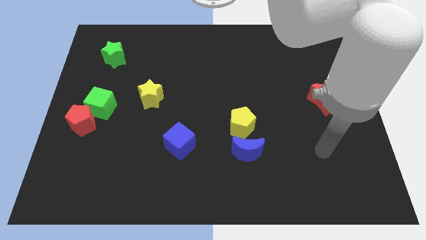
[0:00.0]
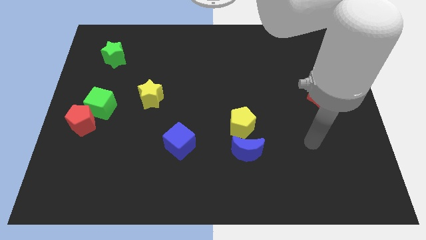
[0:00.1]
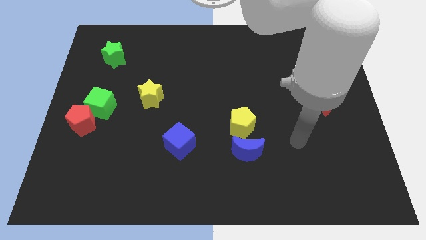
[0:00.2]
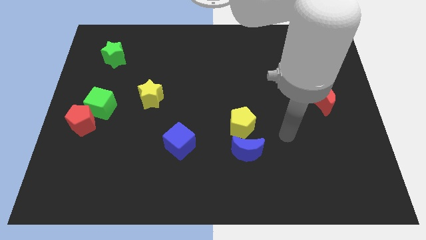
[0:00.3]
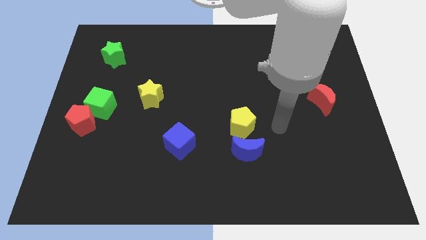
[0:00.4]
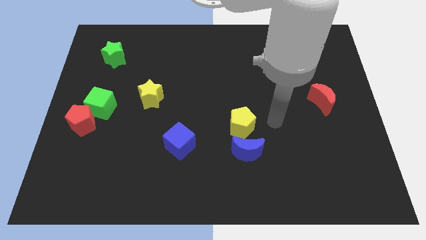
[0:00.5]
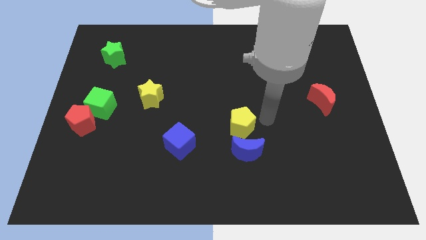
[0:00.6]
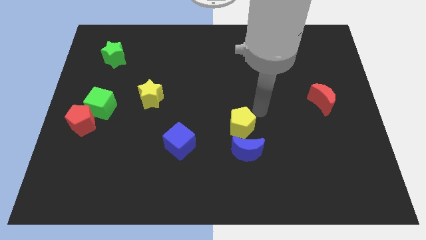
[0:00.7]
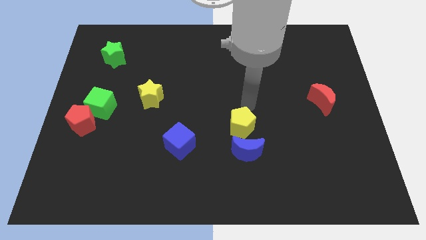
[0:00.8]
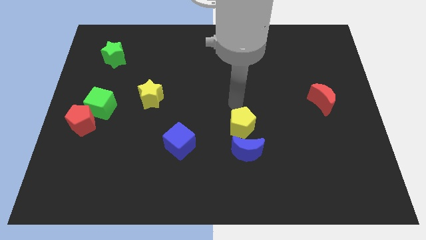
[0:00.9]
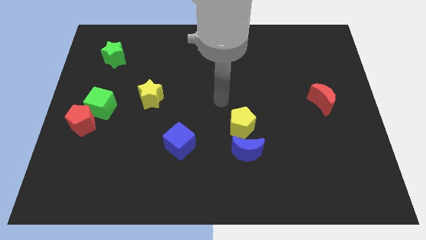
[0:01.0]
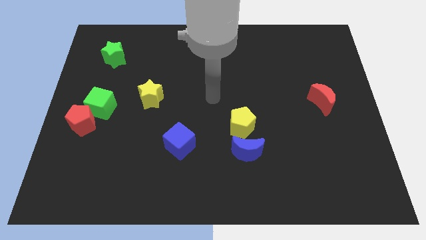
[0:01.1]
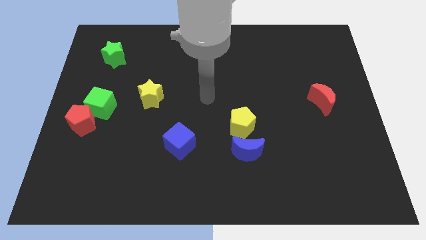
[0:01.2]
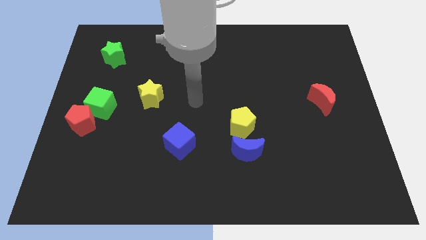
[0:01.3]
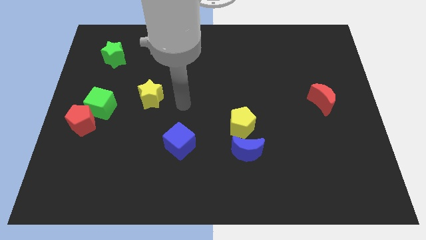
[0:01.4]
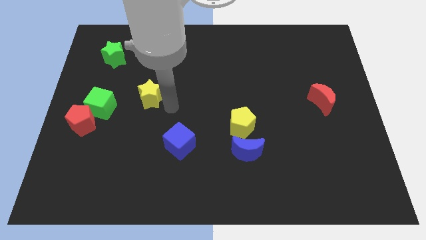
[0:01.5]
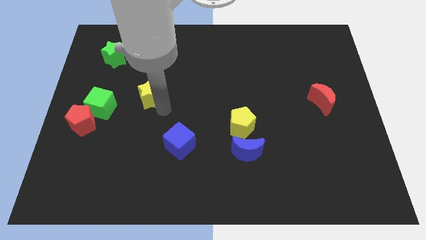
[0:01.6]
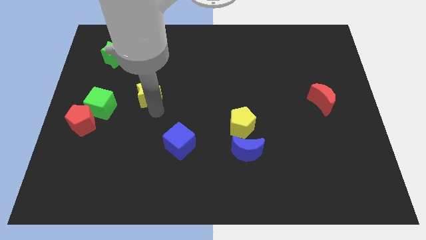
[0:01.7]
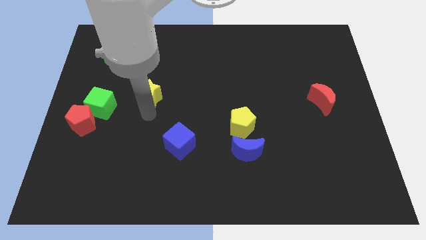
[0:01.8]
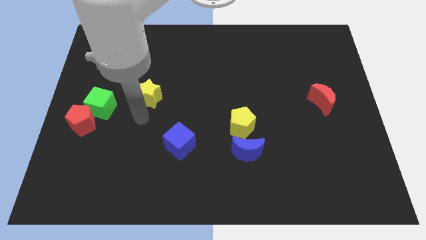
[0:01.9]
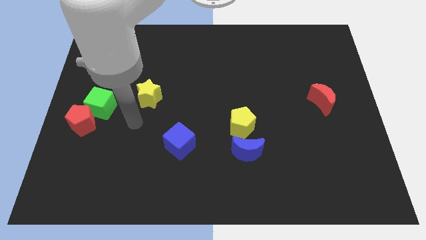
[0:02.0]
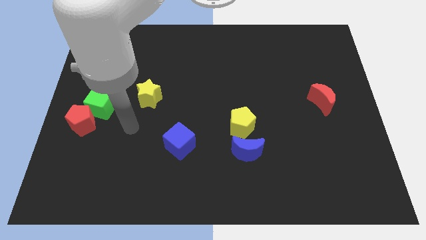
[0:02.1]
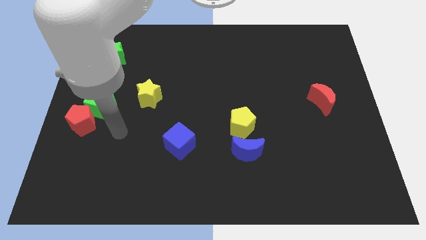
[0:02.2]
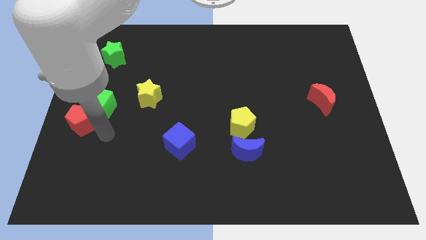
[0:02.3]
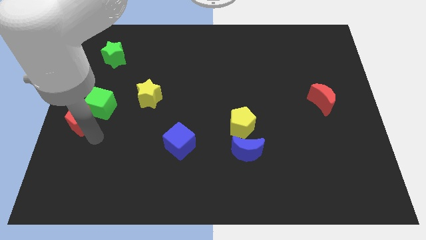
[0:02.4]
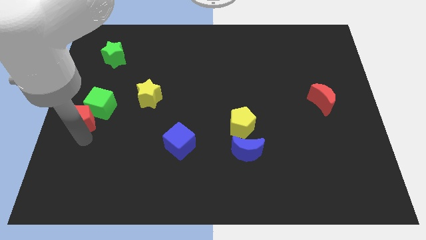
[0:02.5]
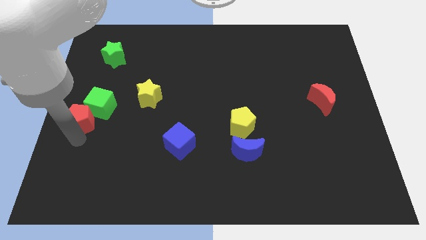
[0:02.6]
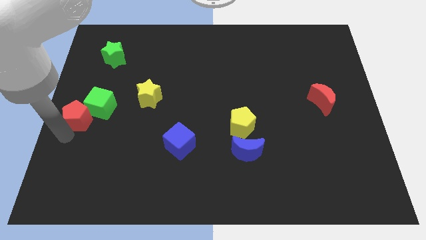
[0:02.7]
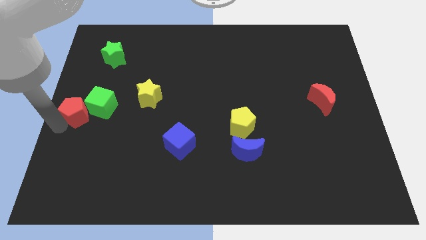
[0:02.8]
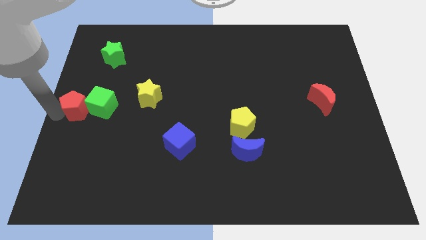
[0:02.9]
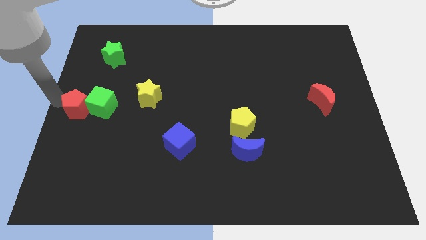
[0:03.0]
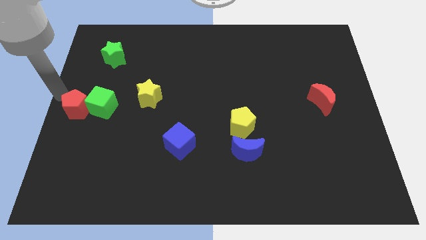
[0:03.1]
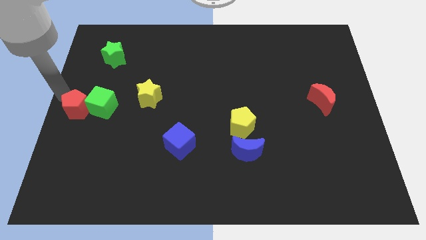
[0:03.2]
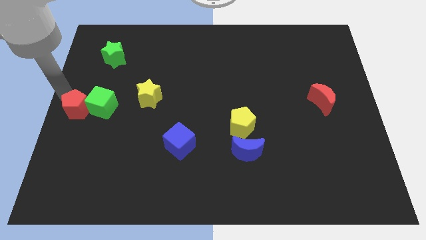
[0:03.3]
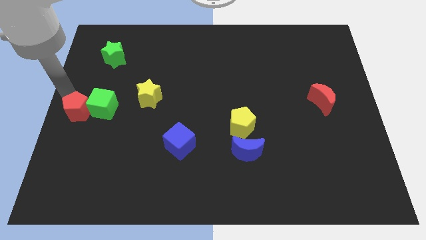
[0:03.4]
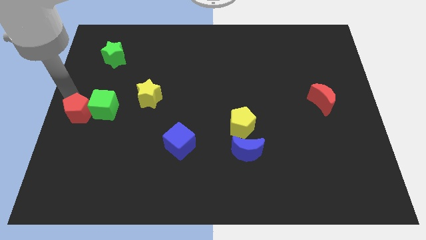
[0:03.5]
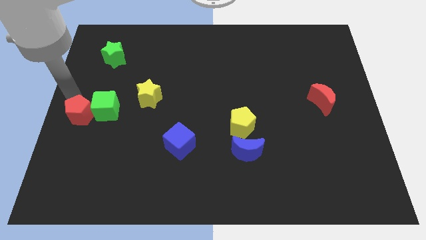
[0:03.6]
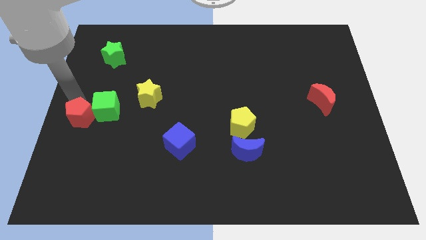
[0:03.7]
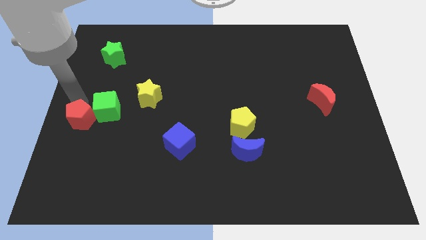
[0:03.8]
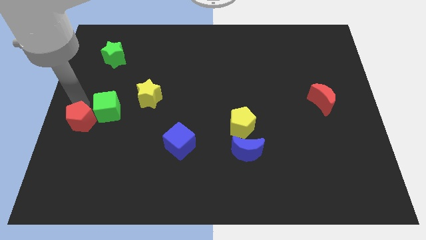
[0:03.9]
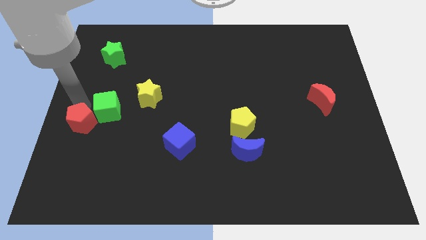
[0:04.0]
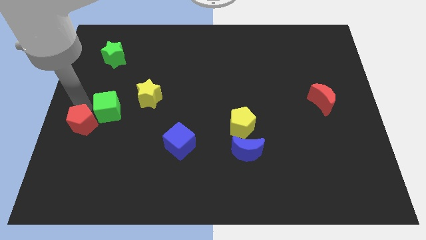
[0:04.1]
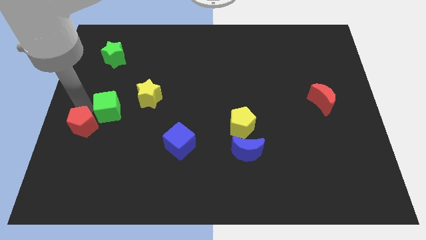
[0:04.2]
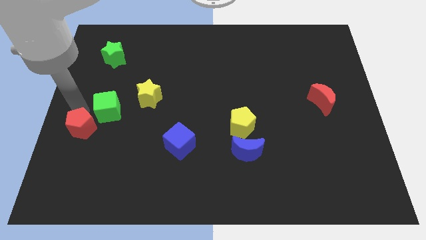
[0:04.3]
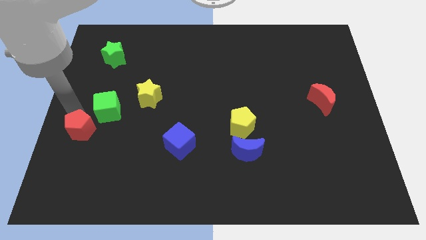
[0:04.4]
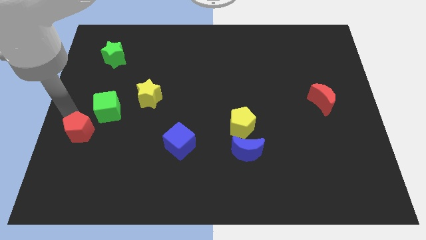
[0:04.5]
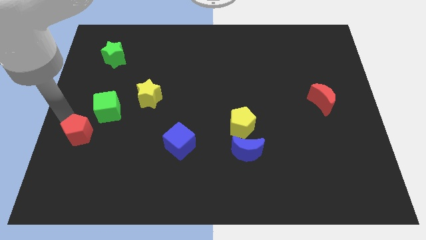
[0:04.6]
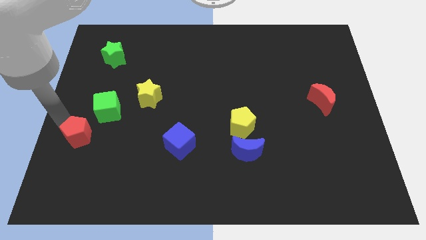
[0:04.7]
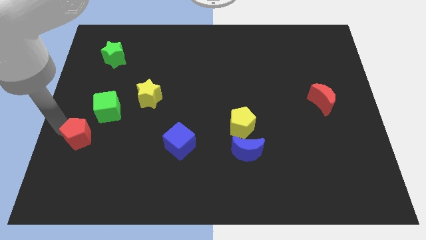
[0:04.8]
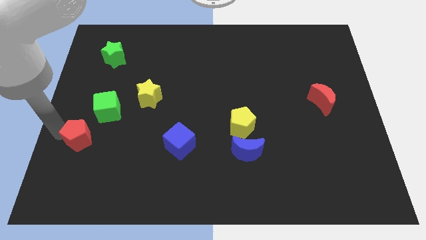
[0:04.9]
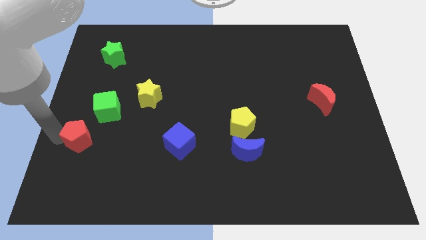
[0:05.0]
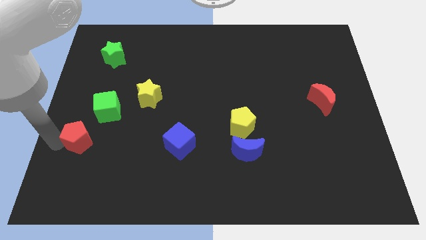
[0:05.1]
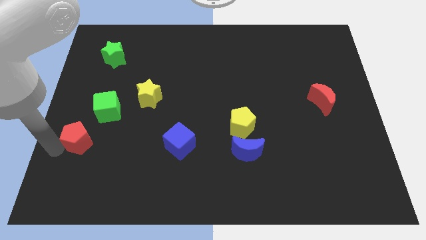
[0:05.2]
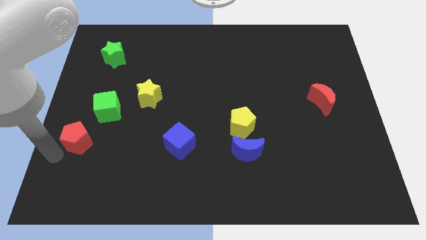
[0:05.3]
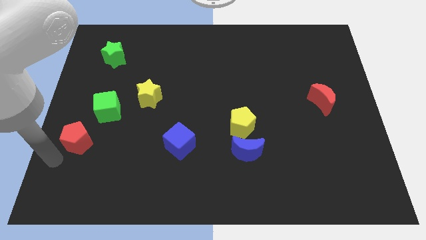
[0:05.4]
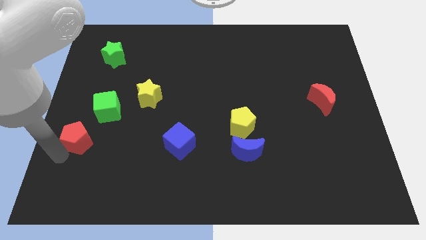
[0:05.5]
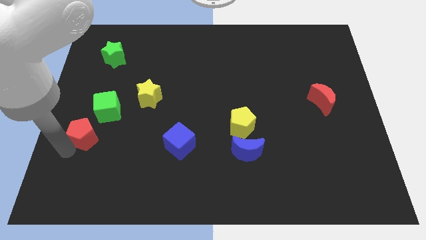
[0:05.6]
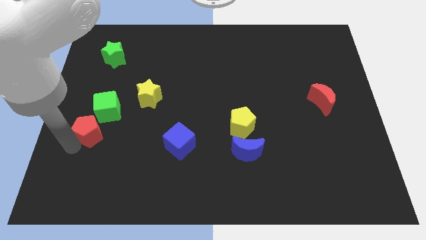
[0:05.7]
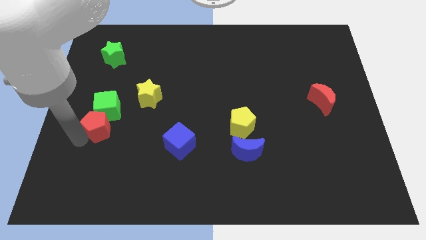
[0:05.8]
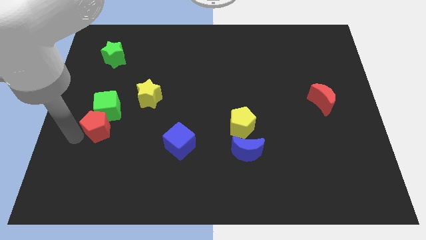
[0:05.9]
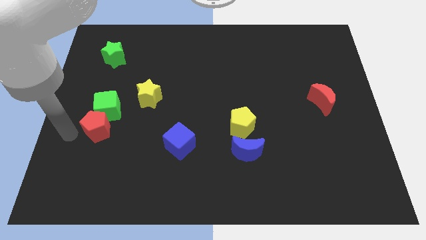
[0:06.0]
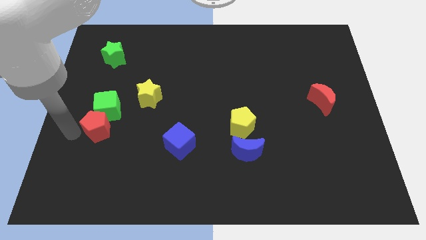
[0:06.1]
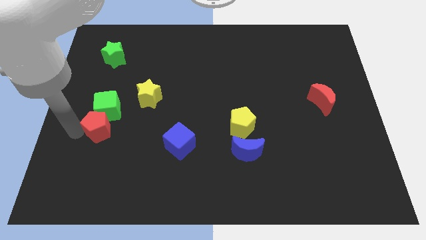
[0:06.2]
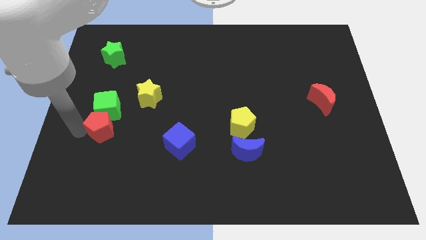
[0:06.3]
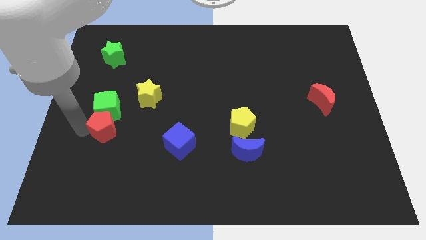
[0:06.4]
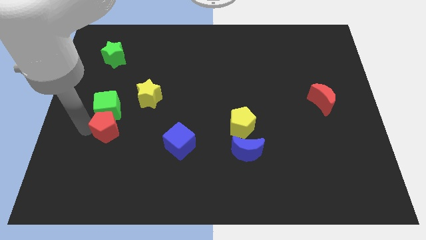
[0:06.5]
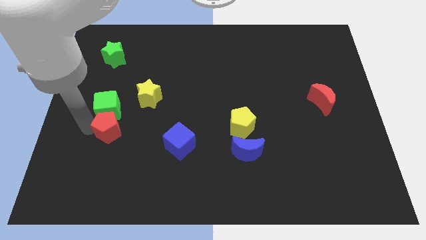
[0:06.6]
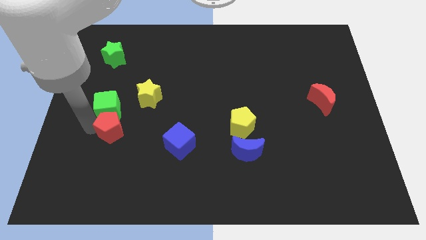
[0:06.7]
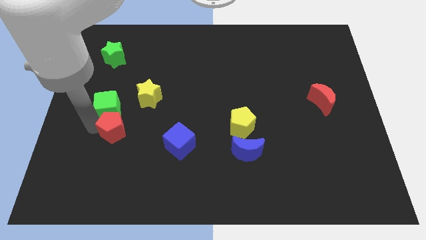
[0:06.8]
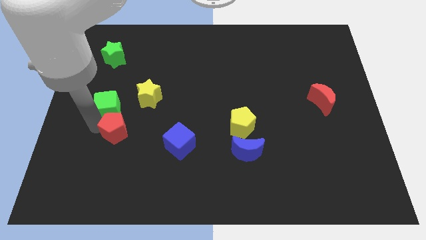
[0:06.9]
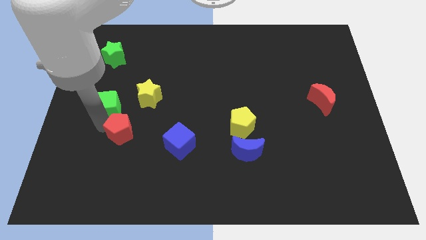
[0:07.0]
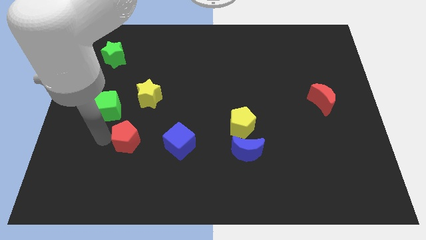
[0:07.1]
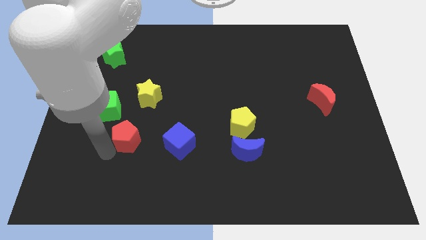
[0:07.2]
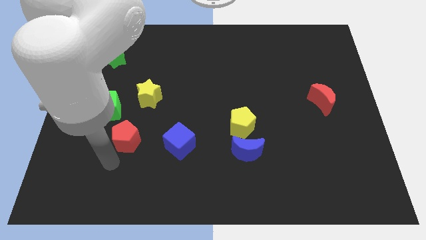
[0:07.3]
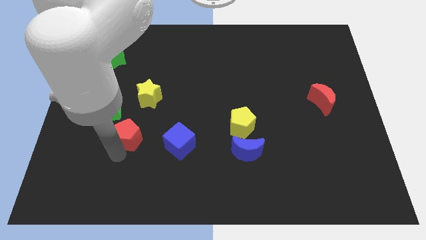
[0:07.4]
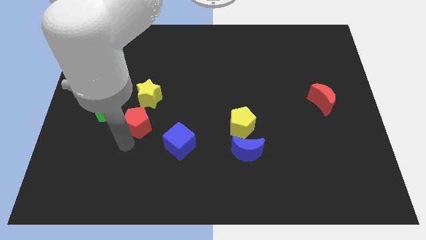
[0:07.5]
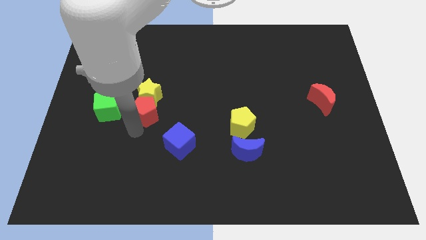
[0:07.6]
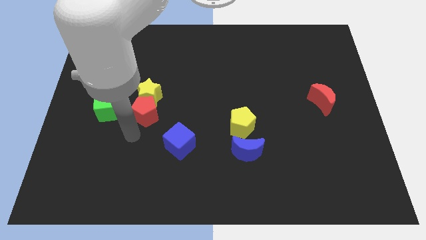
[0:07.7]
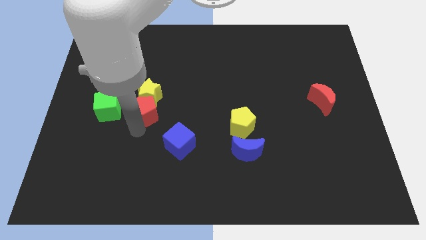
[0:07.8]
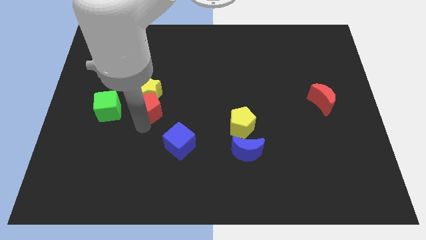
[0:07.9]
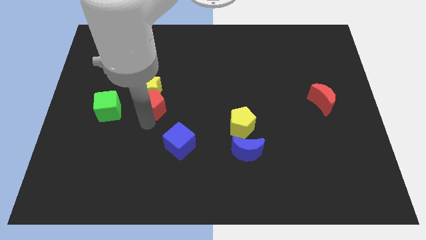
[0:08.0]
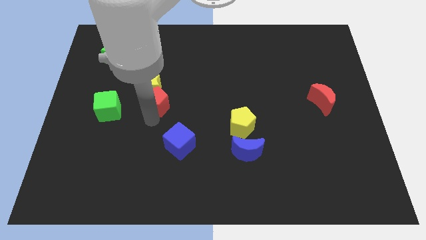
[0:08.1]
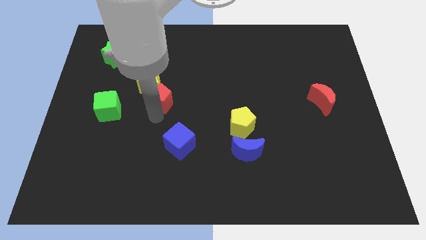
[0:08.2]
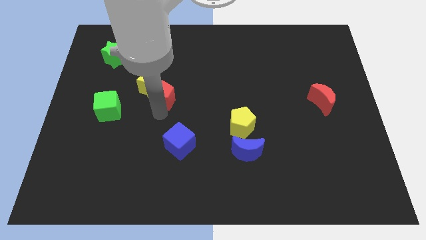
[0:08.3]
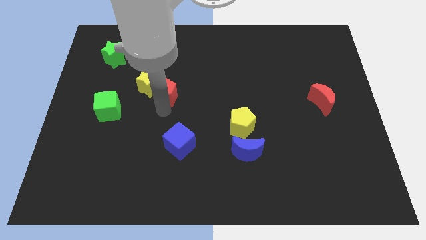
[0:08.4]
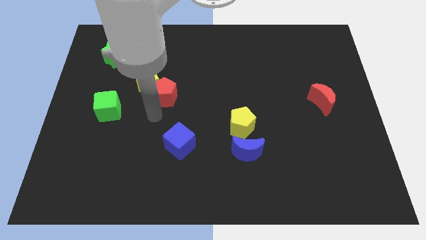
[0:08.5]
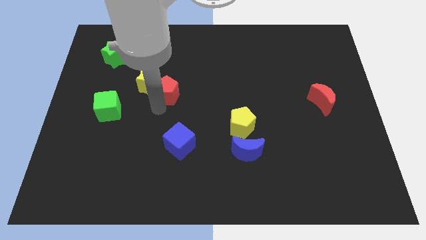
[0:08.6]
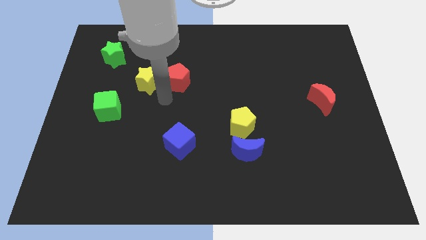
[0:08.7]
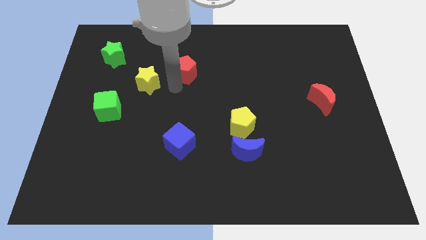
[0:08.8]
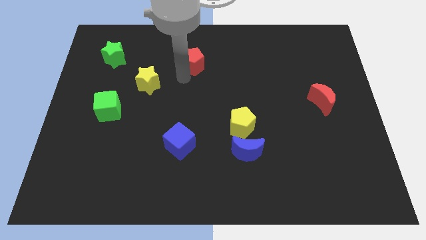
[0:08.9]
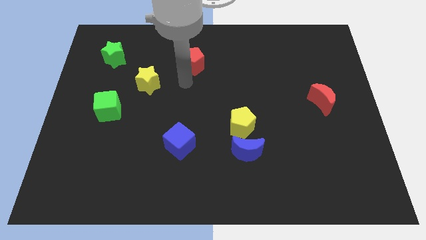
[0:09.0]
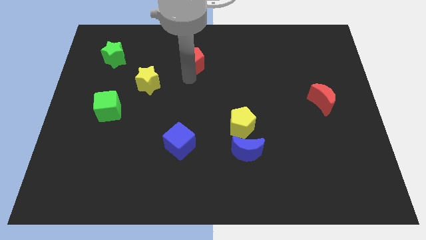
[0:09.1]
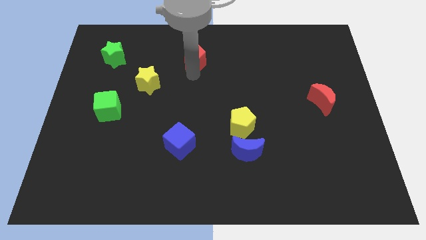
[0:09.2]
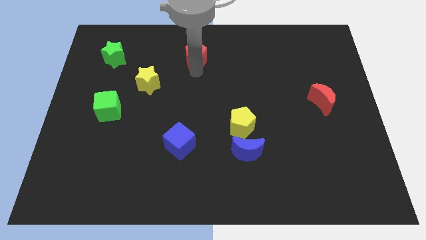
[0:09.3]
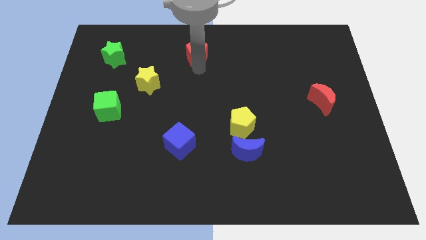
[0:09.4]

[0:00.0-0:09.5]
slide the red pentagon to the top side
